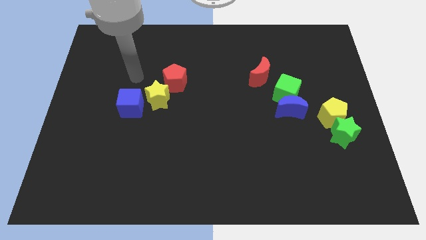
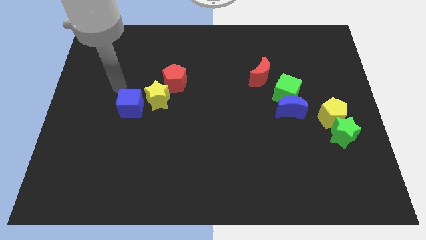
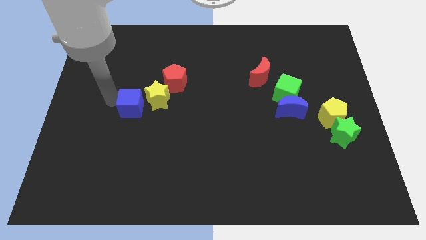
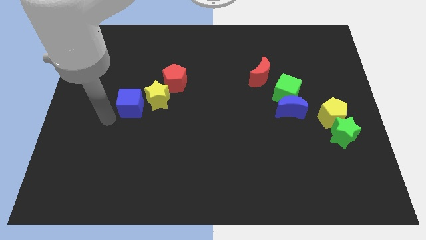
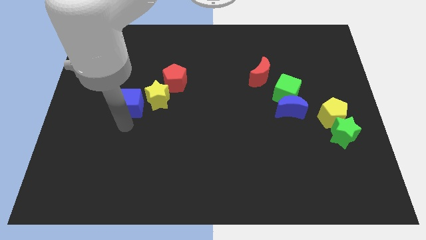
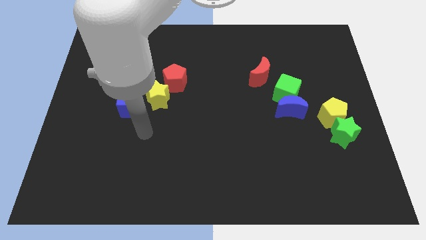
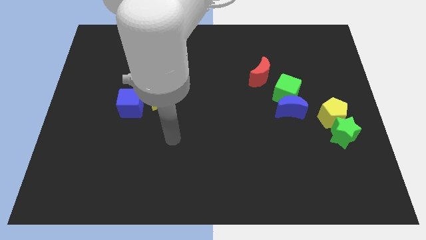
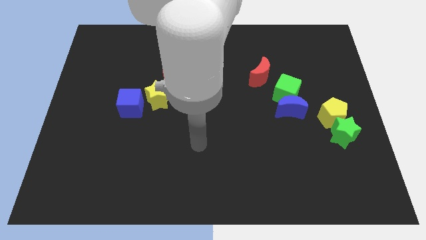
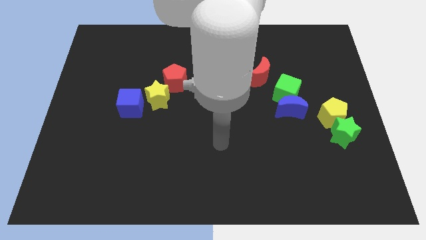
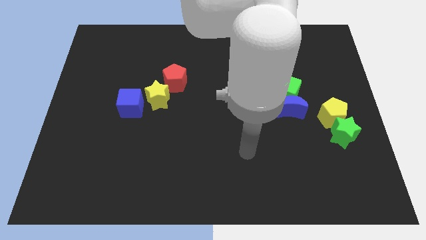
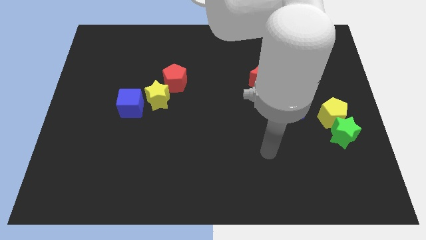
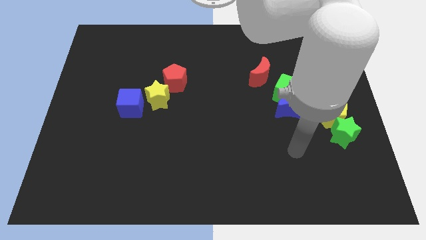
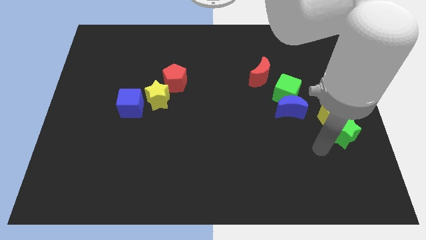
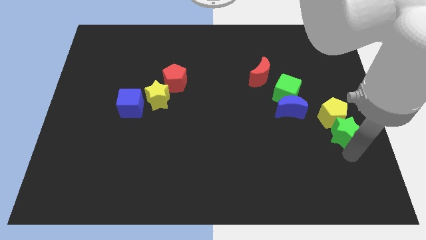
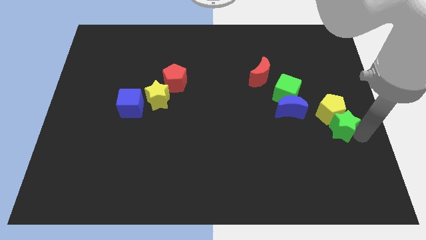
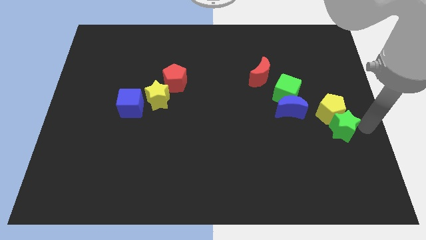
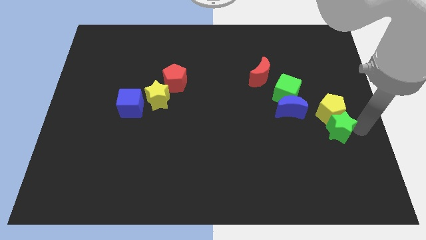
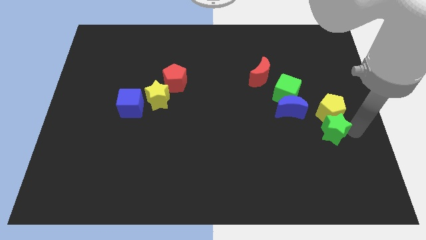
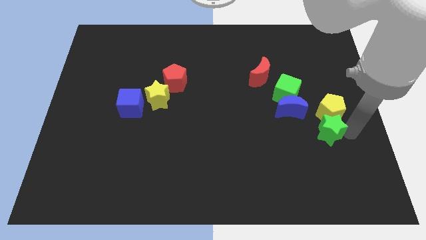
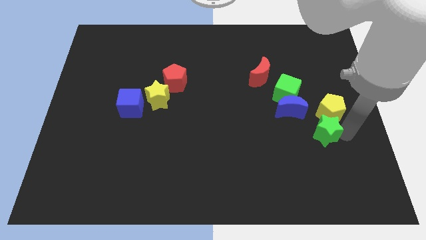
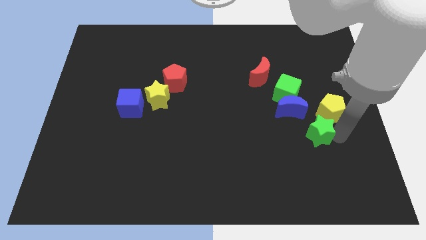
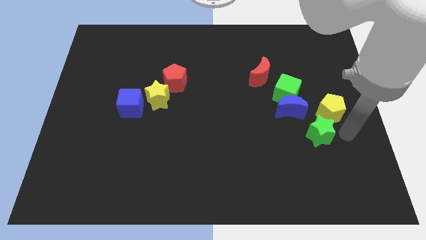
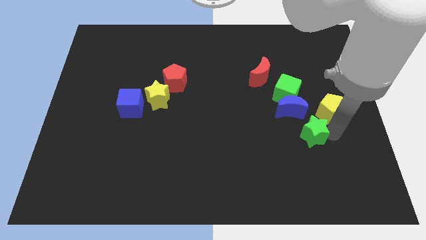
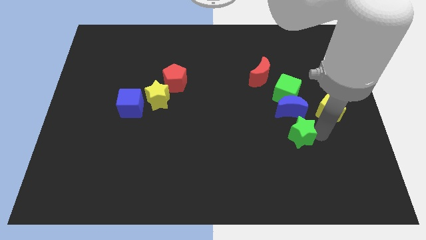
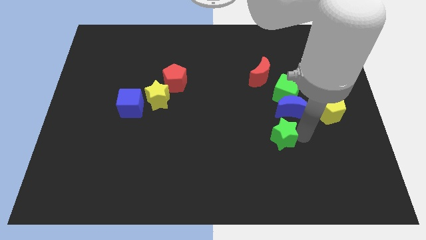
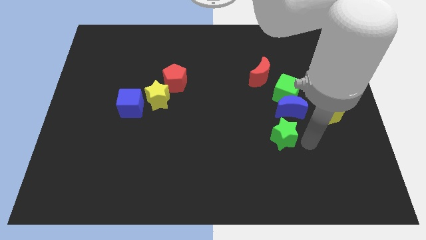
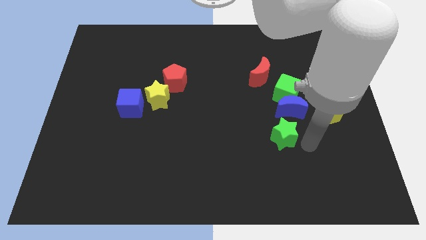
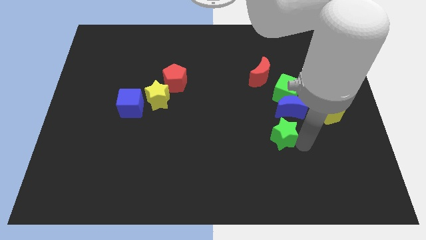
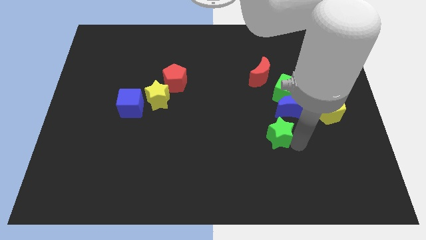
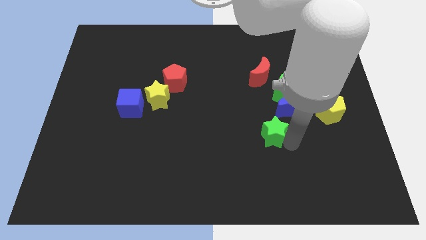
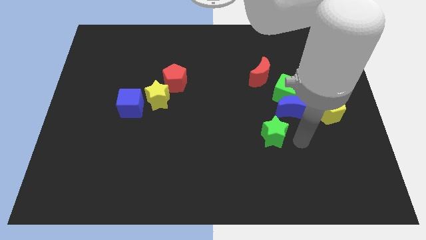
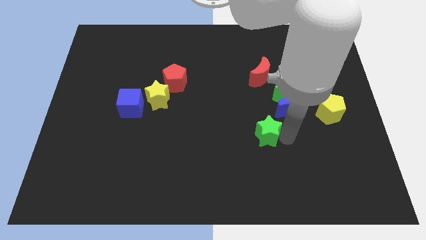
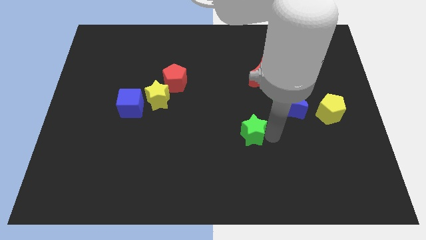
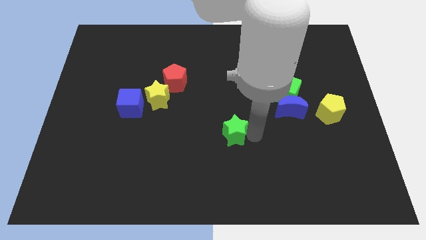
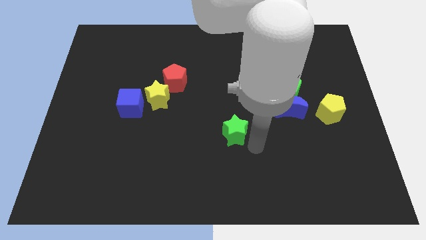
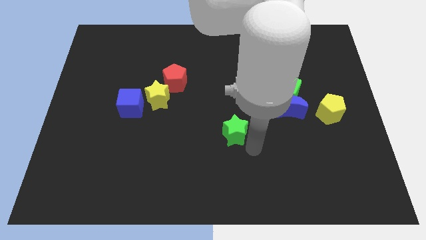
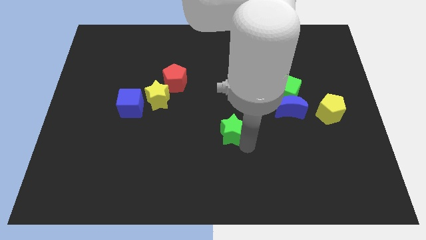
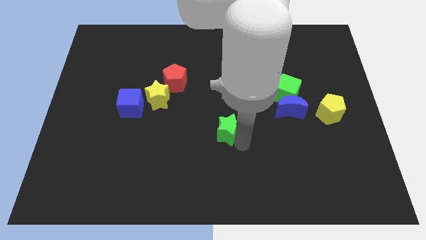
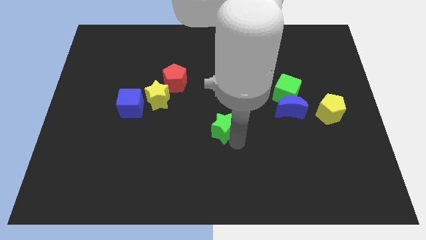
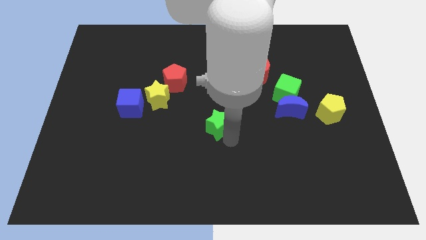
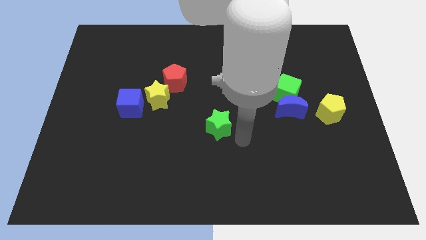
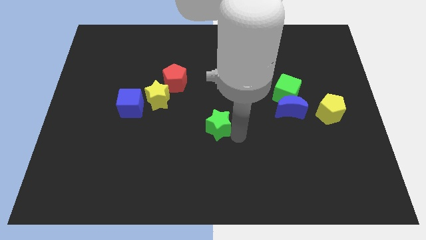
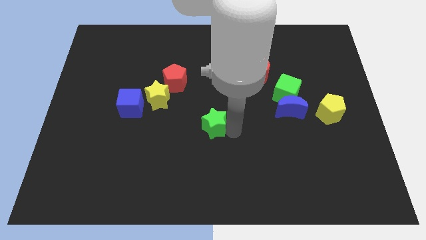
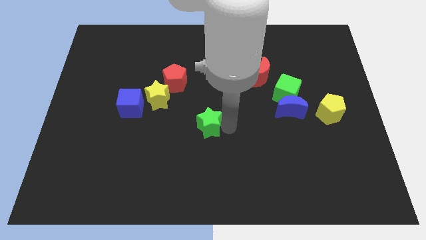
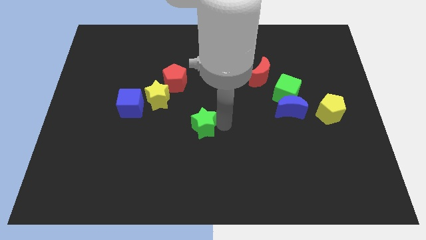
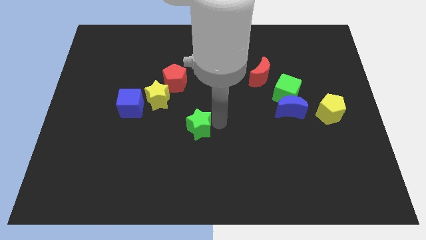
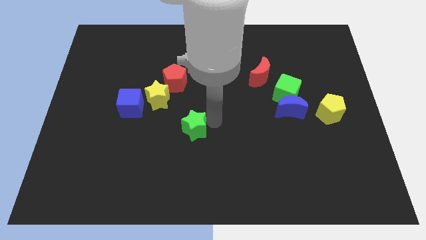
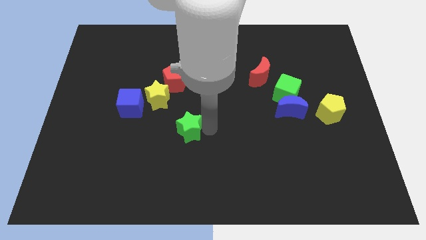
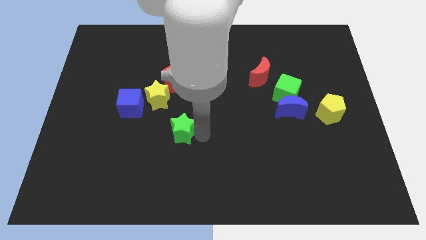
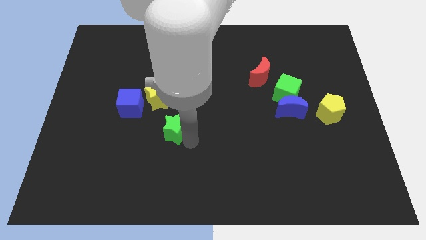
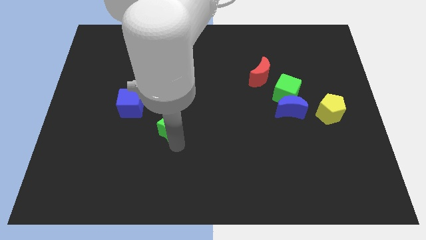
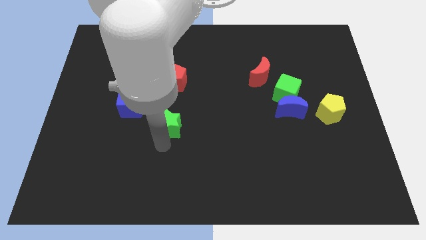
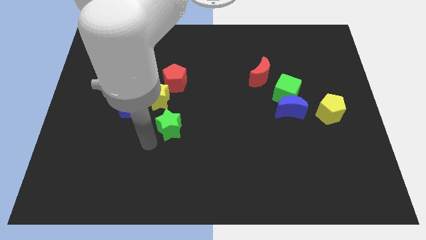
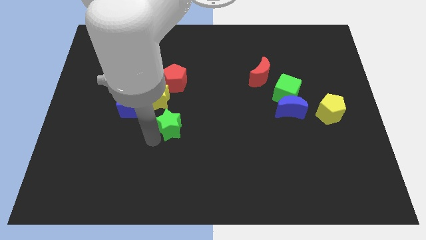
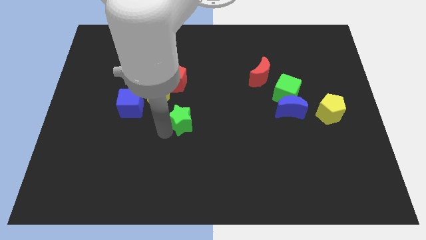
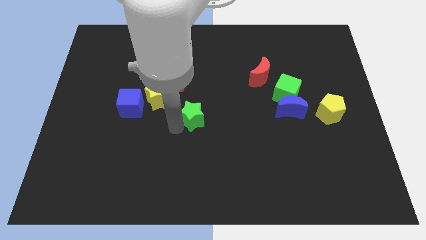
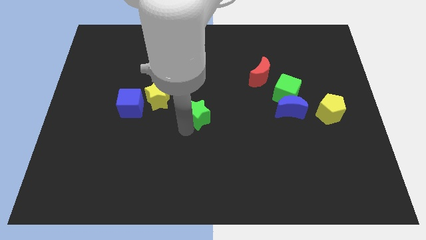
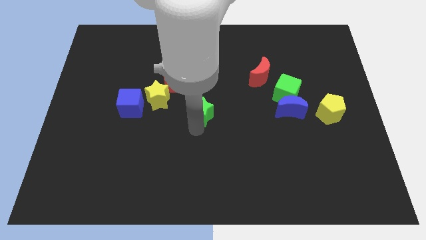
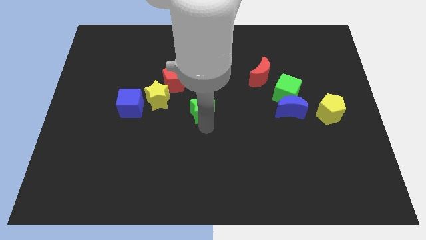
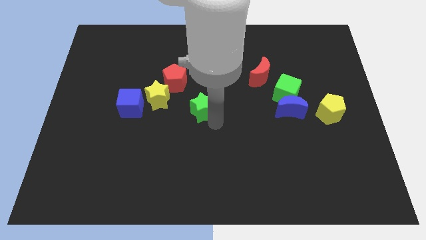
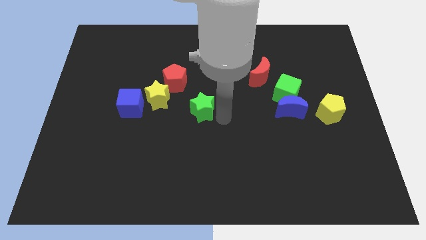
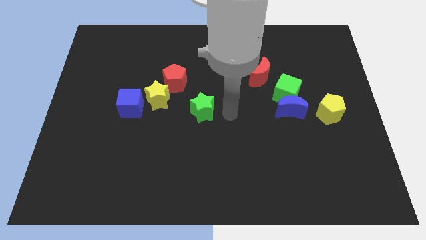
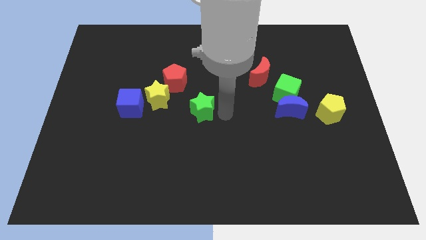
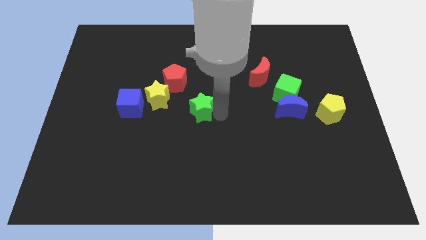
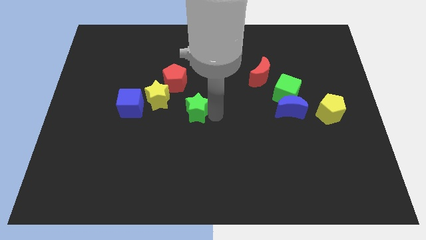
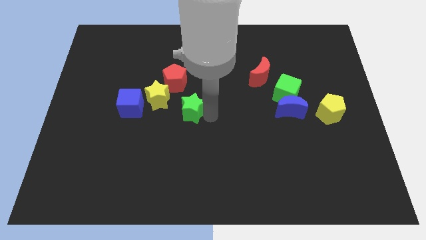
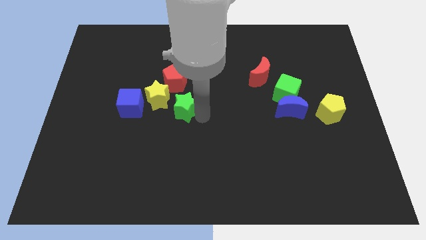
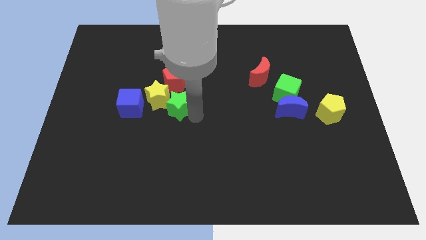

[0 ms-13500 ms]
slide the green star towards the yellow star
